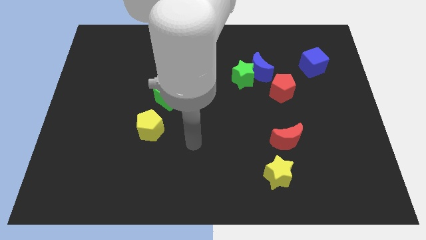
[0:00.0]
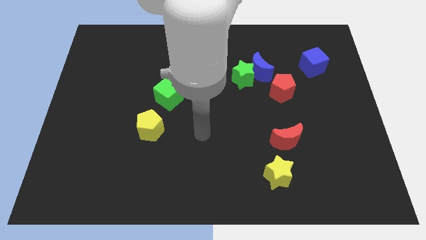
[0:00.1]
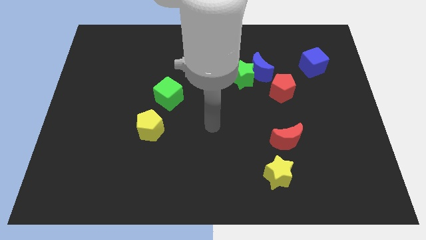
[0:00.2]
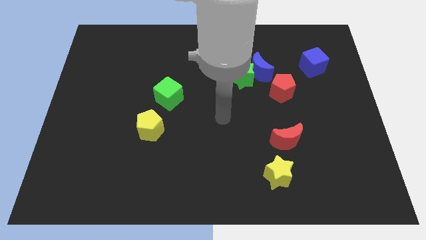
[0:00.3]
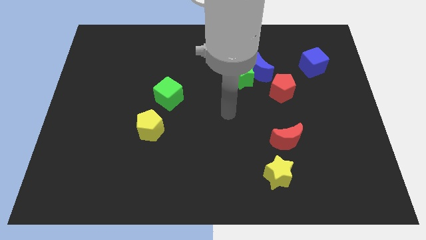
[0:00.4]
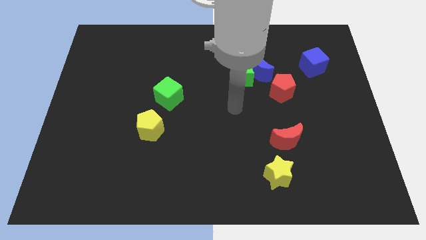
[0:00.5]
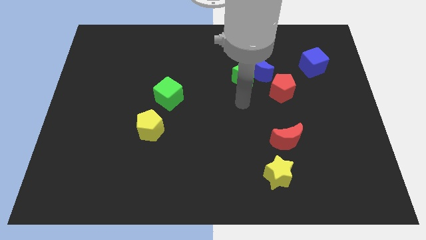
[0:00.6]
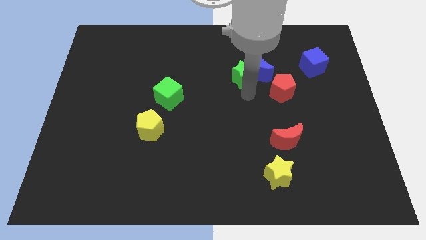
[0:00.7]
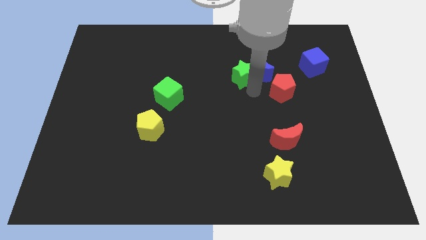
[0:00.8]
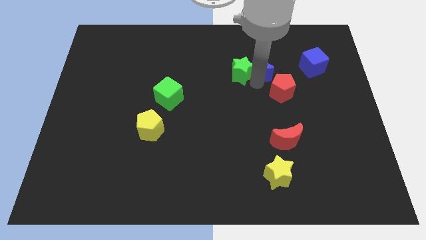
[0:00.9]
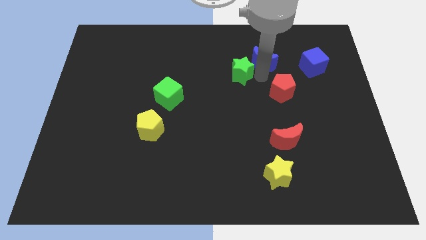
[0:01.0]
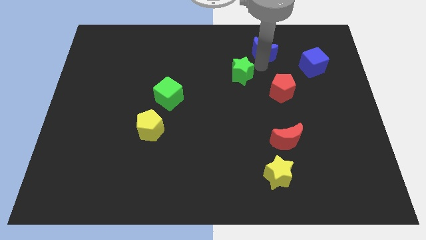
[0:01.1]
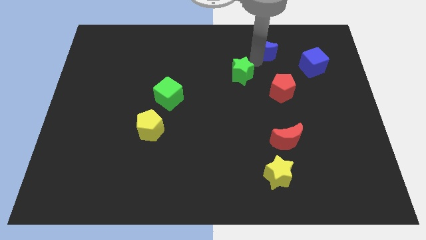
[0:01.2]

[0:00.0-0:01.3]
separate the green star from the blue moon

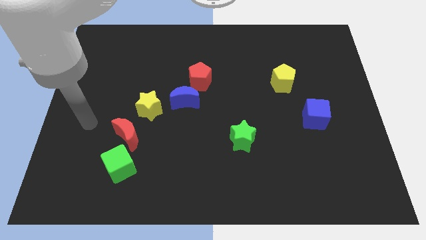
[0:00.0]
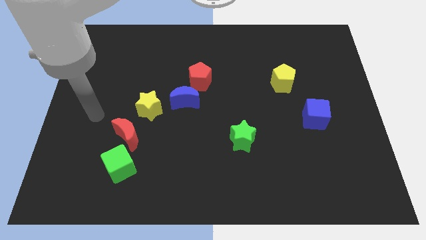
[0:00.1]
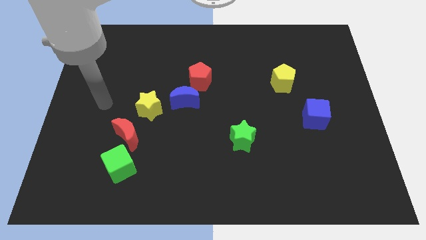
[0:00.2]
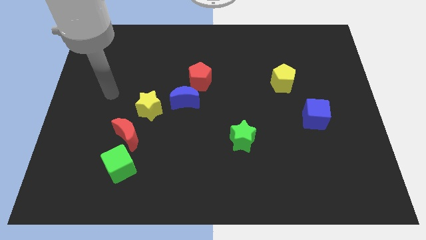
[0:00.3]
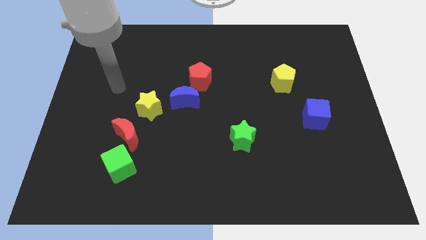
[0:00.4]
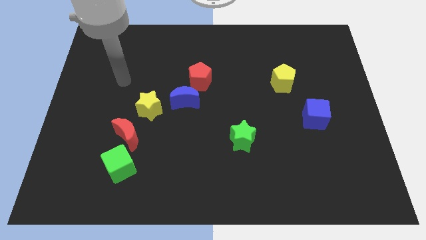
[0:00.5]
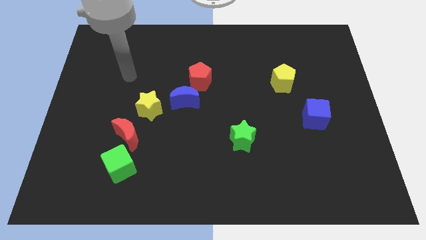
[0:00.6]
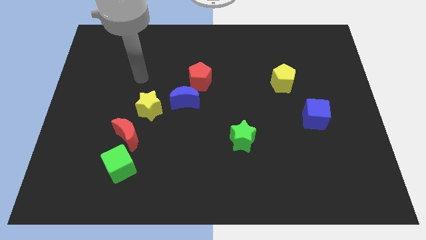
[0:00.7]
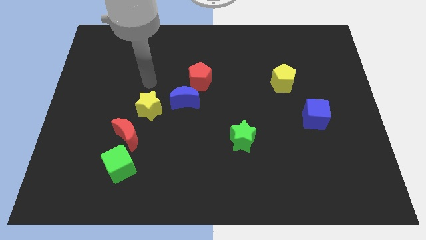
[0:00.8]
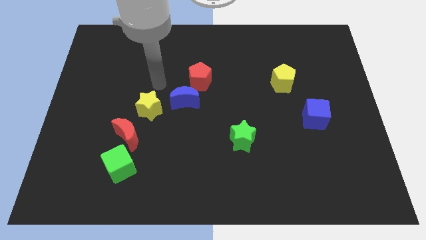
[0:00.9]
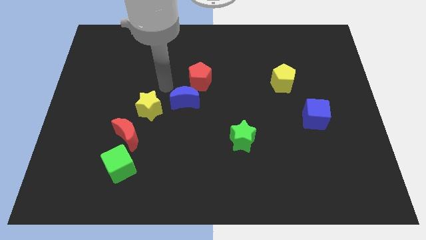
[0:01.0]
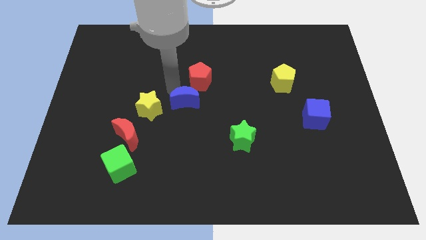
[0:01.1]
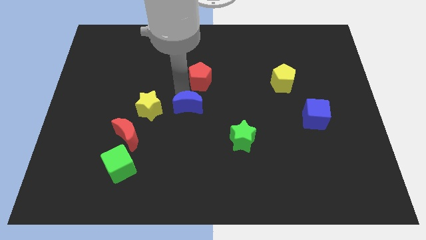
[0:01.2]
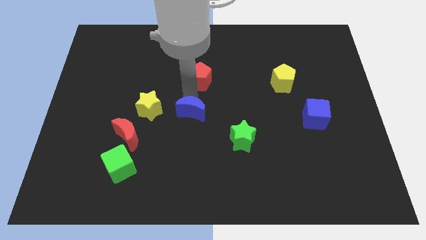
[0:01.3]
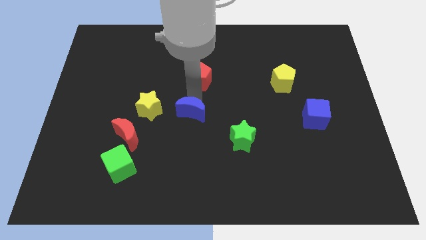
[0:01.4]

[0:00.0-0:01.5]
separate the red pentagon from the blue moon

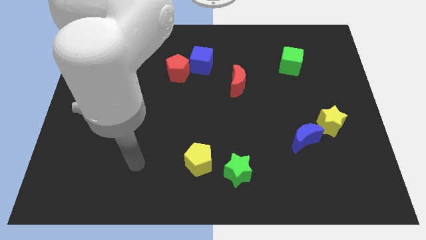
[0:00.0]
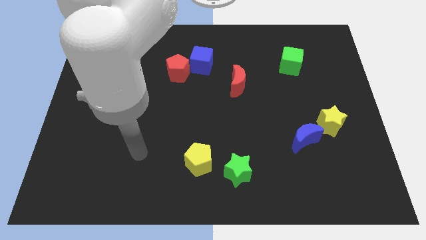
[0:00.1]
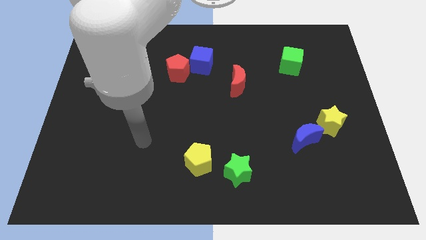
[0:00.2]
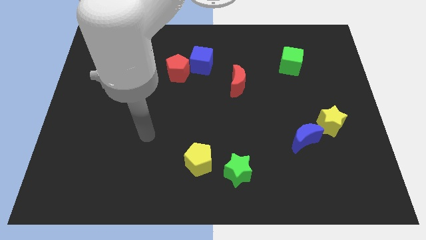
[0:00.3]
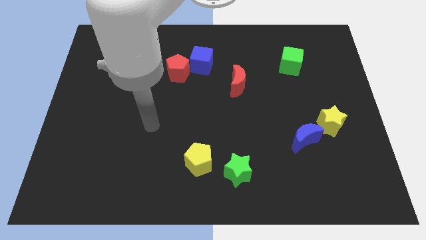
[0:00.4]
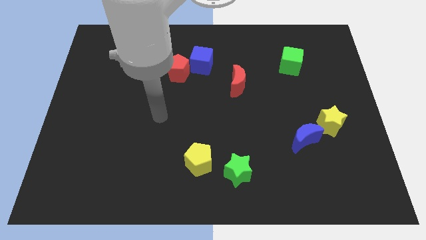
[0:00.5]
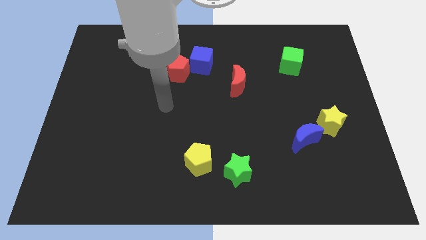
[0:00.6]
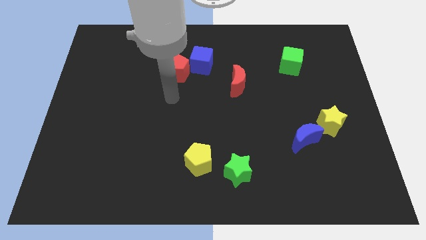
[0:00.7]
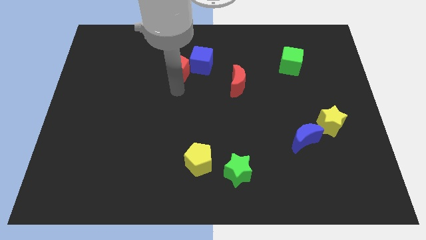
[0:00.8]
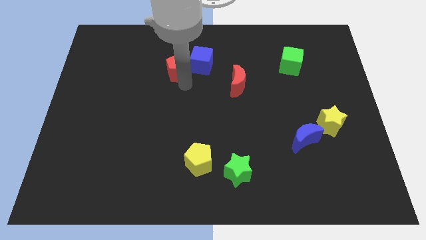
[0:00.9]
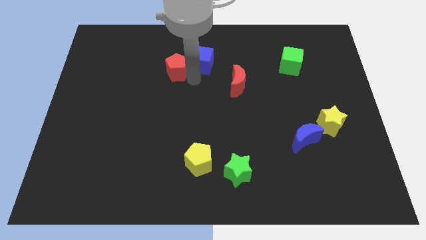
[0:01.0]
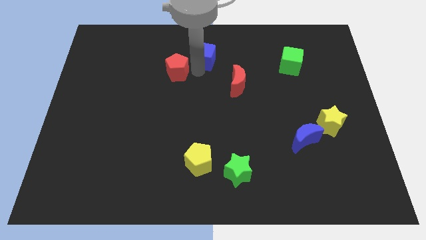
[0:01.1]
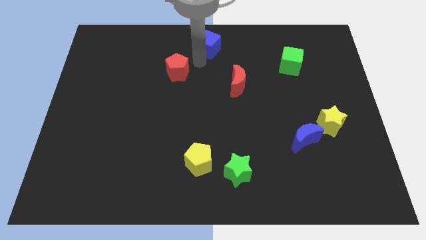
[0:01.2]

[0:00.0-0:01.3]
move the red pentagon away from the blue cube

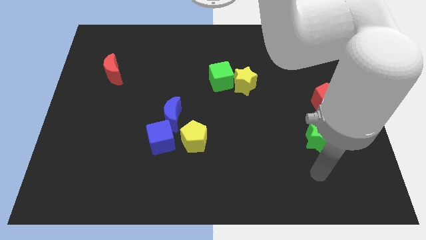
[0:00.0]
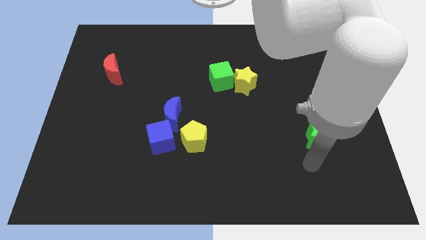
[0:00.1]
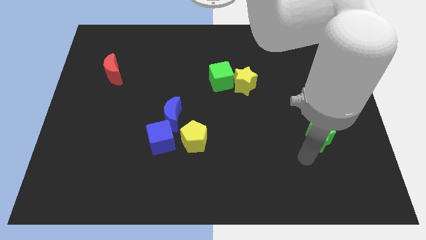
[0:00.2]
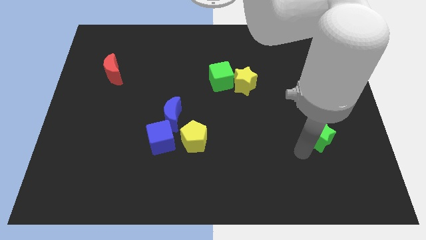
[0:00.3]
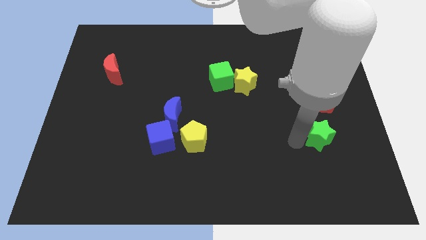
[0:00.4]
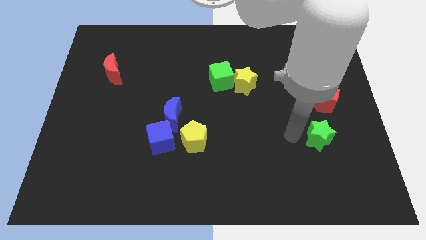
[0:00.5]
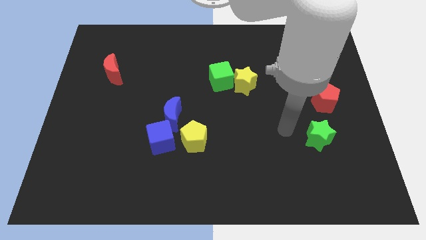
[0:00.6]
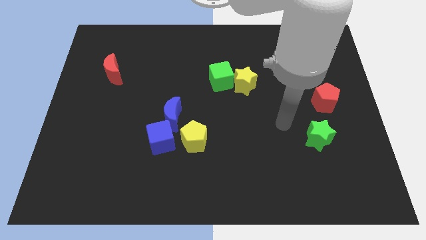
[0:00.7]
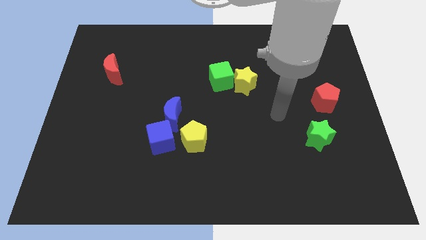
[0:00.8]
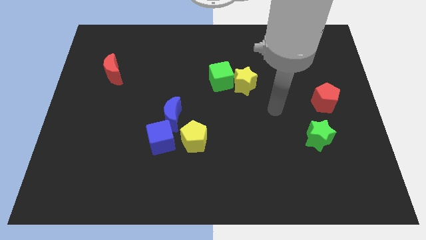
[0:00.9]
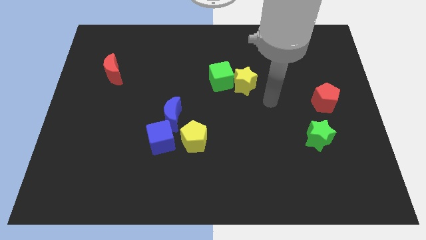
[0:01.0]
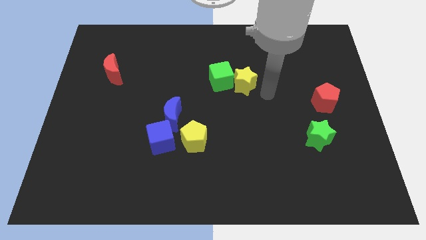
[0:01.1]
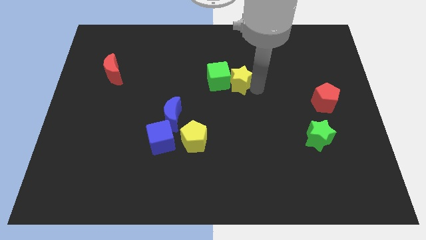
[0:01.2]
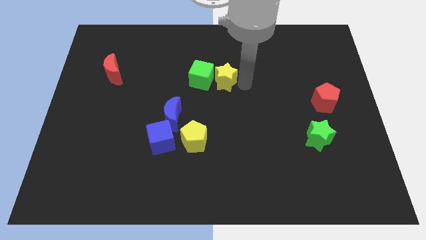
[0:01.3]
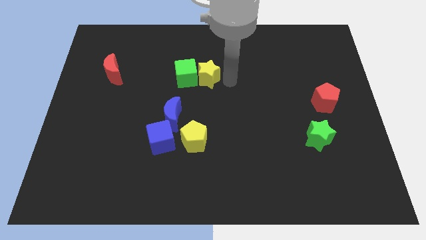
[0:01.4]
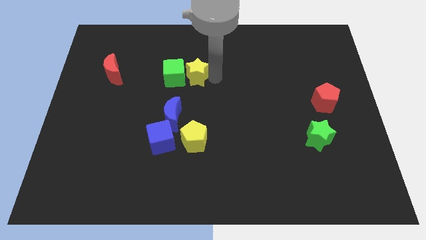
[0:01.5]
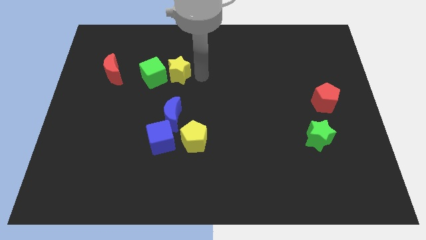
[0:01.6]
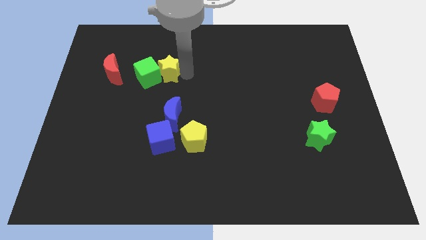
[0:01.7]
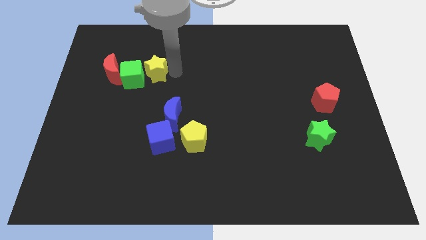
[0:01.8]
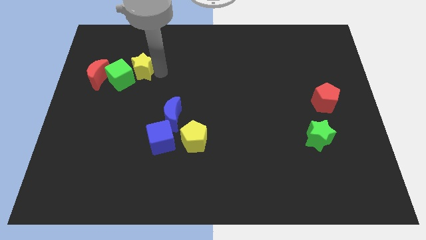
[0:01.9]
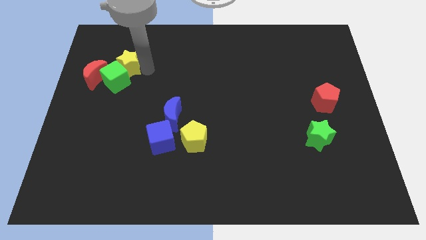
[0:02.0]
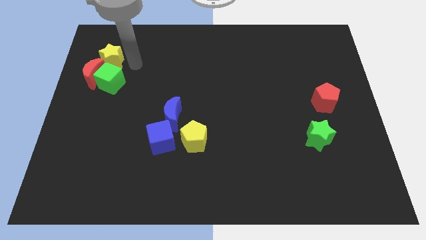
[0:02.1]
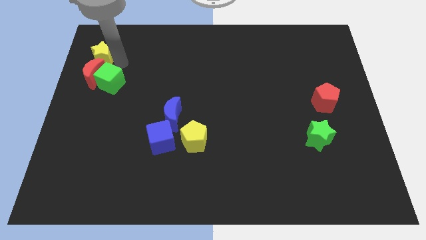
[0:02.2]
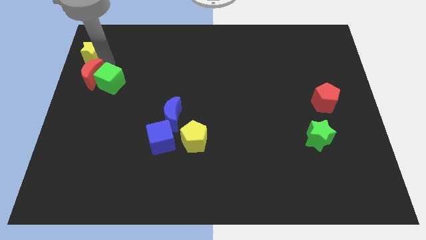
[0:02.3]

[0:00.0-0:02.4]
pull the green cube apart from the yellow star

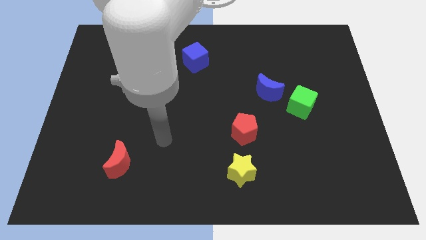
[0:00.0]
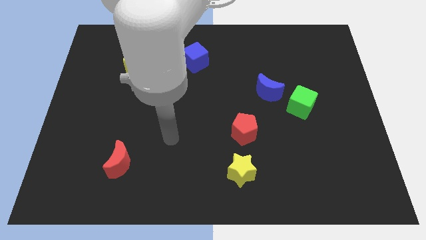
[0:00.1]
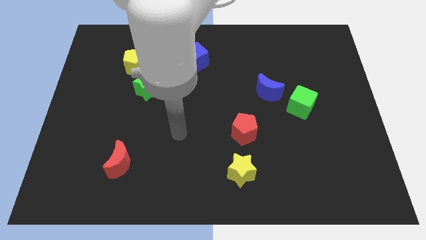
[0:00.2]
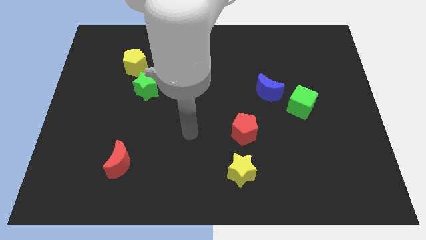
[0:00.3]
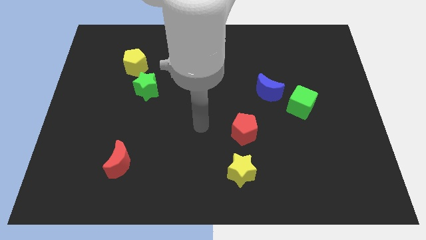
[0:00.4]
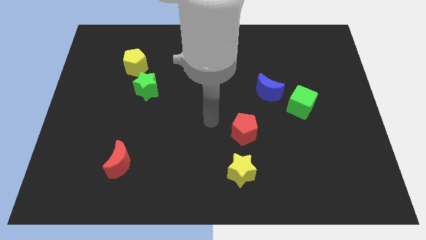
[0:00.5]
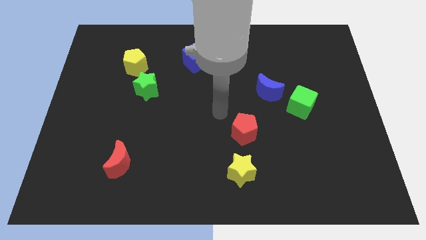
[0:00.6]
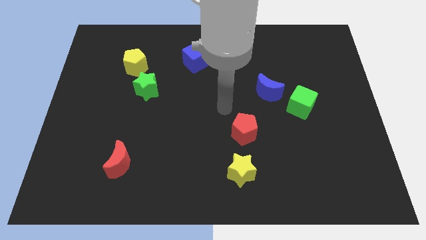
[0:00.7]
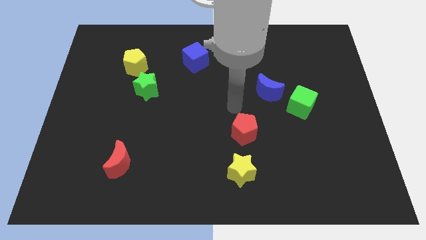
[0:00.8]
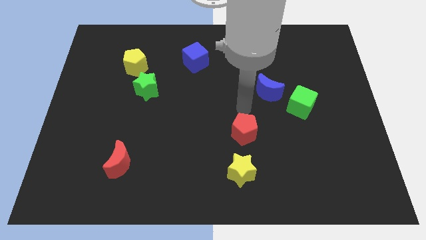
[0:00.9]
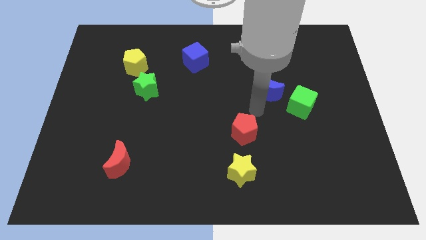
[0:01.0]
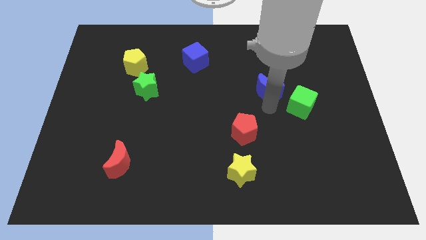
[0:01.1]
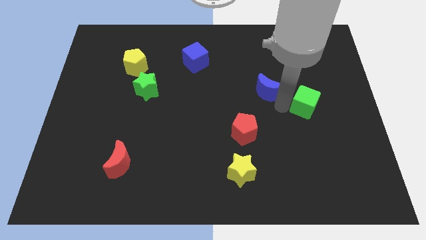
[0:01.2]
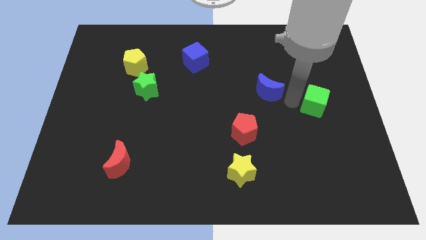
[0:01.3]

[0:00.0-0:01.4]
move the blue moon away from the green cube

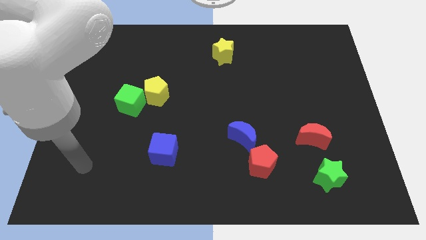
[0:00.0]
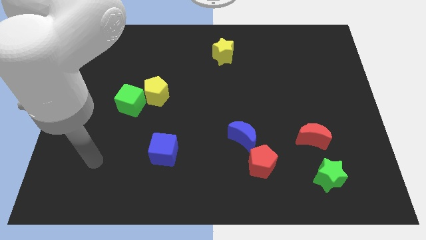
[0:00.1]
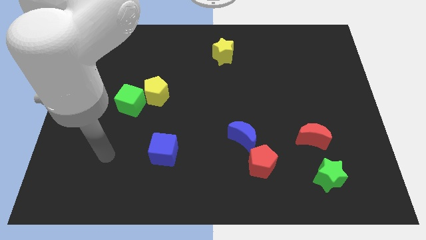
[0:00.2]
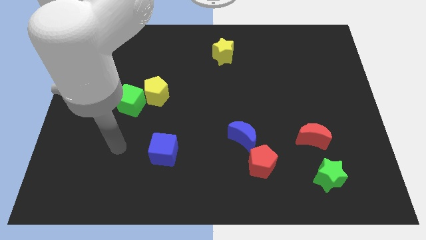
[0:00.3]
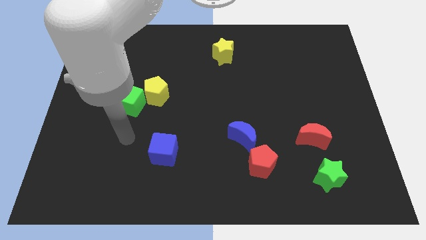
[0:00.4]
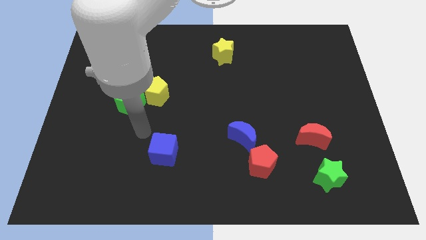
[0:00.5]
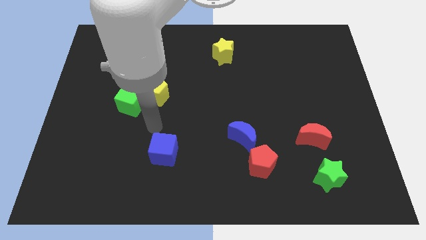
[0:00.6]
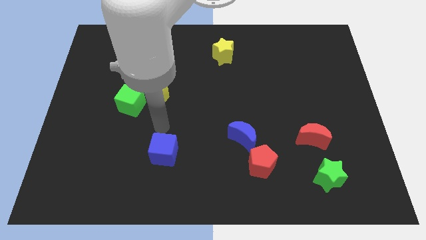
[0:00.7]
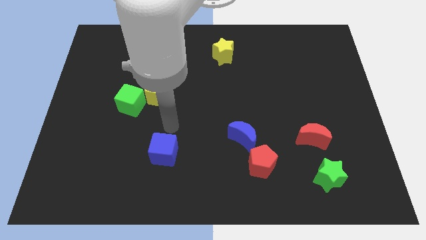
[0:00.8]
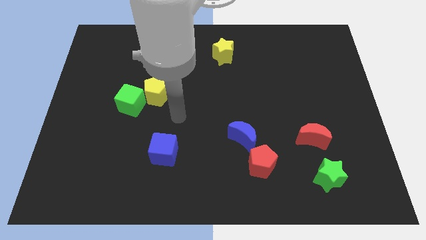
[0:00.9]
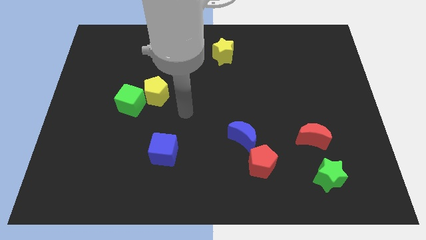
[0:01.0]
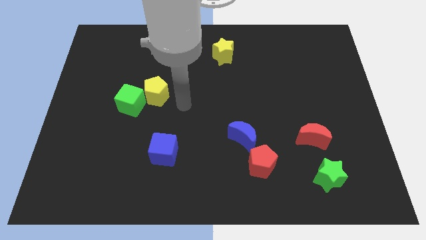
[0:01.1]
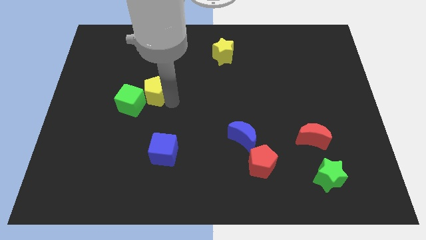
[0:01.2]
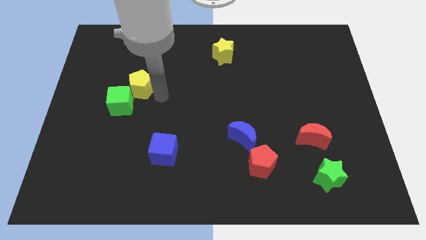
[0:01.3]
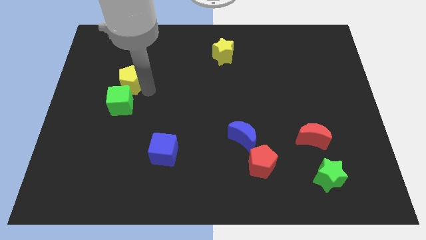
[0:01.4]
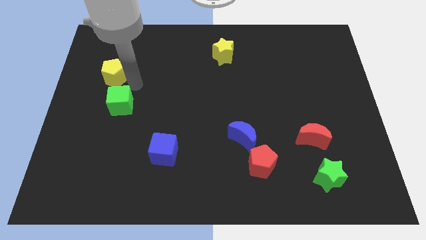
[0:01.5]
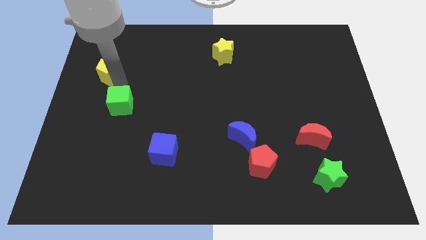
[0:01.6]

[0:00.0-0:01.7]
move the green cube away from the yellow pentagon
